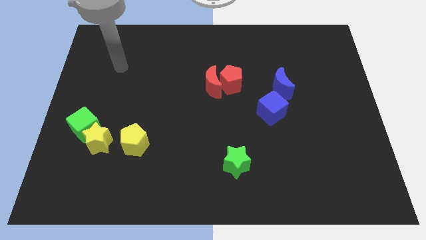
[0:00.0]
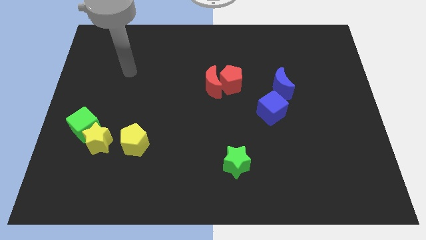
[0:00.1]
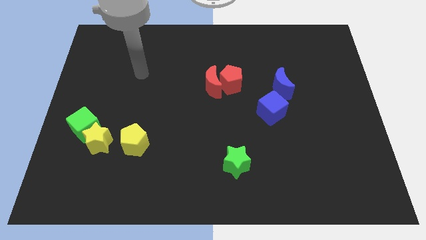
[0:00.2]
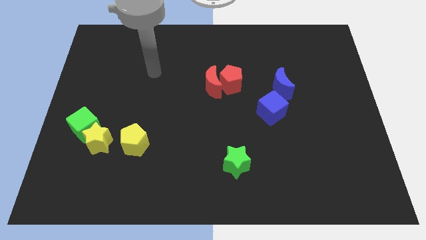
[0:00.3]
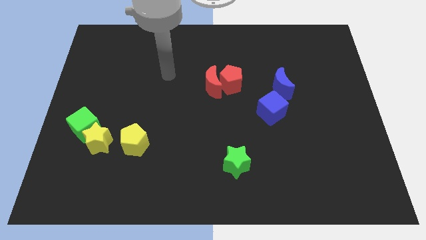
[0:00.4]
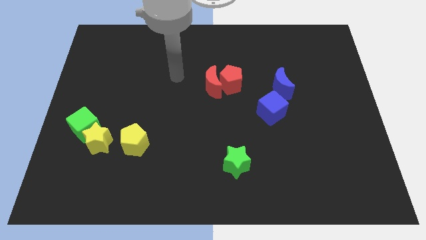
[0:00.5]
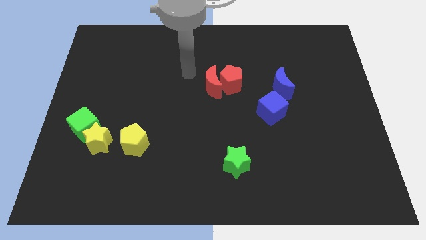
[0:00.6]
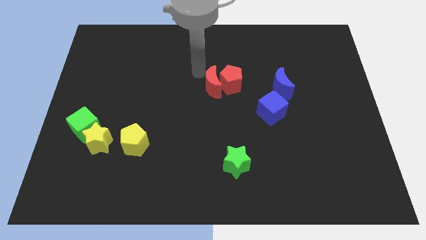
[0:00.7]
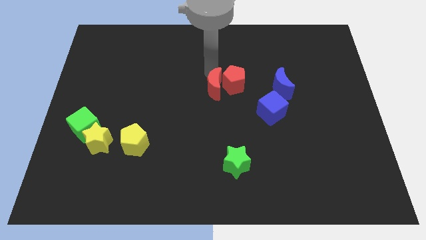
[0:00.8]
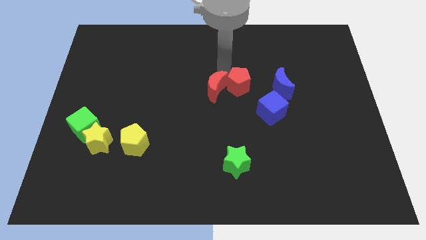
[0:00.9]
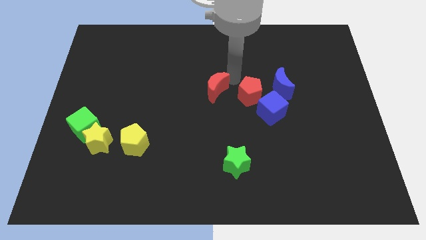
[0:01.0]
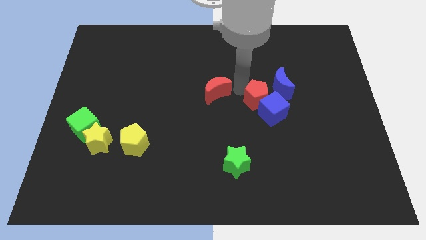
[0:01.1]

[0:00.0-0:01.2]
pull the red moon apart from the red pentagon

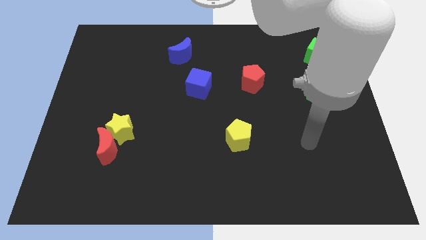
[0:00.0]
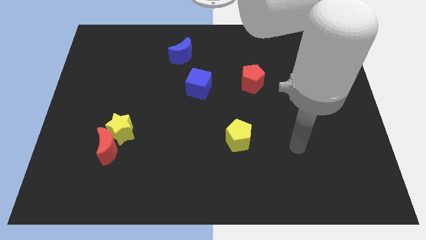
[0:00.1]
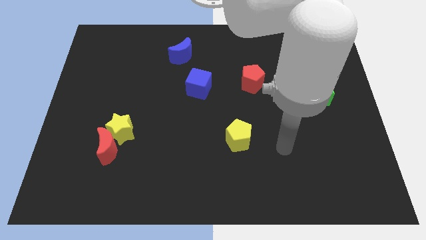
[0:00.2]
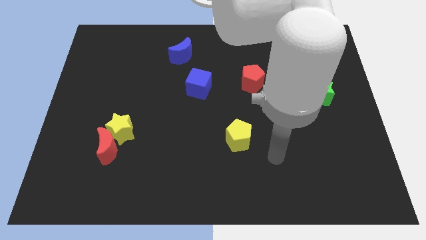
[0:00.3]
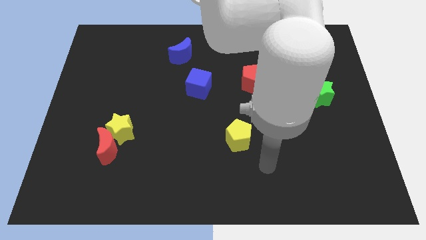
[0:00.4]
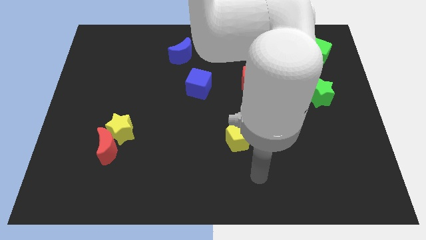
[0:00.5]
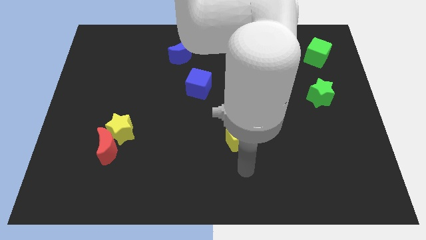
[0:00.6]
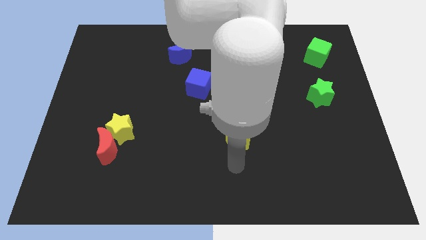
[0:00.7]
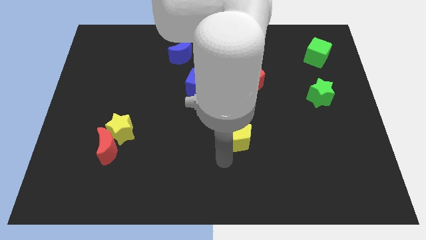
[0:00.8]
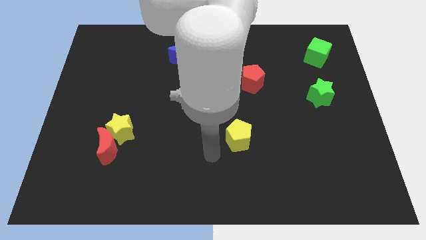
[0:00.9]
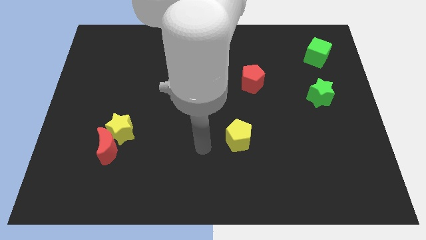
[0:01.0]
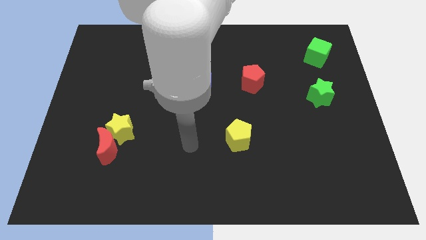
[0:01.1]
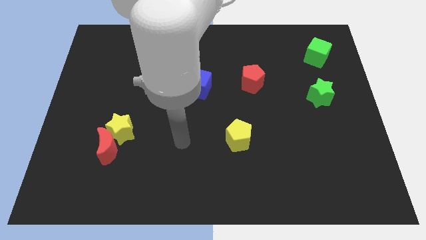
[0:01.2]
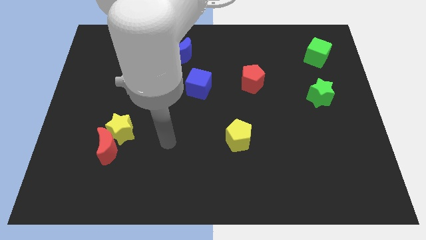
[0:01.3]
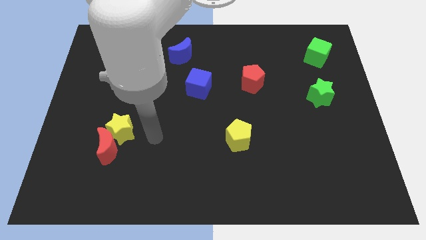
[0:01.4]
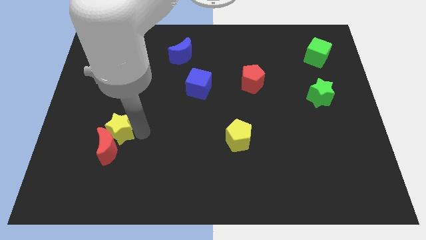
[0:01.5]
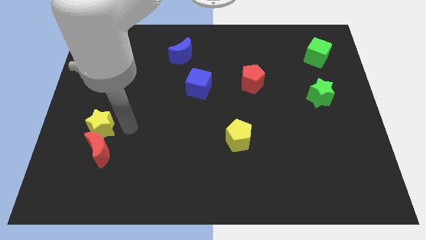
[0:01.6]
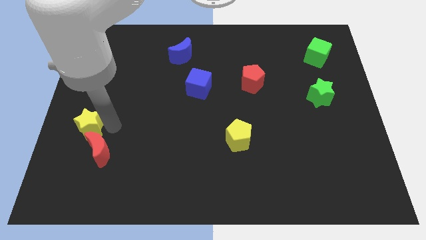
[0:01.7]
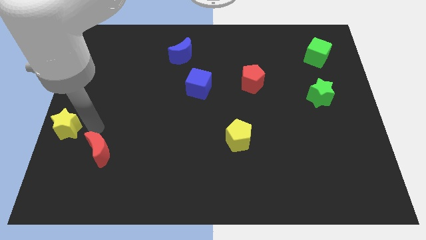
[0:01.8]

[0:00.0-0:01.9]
move the red moon away from the yellow star

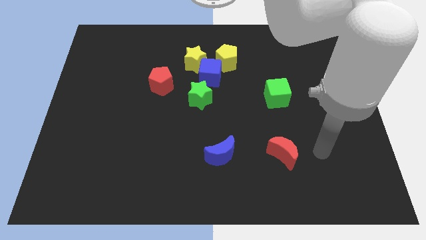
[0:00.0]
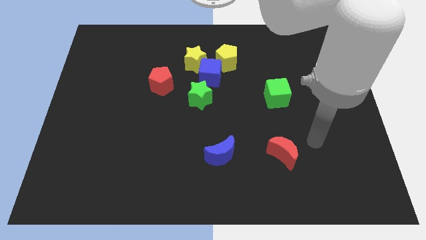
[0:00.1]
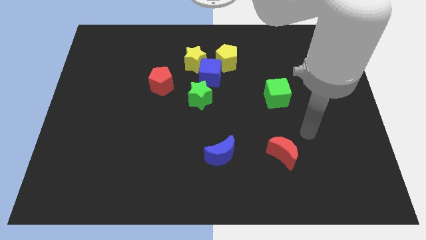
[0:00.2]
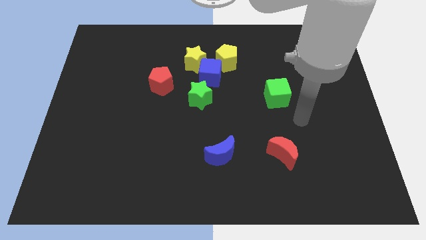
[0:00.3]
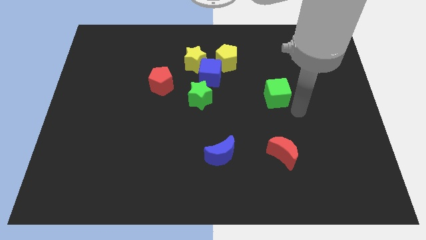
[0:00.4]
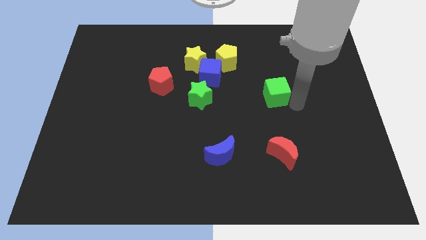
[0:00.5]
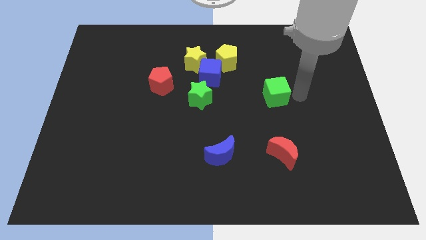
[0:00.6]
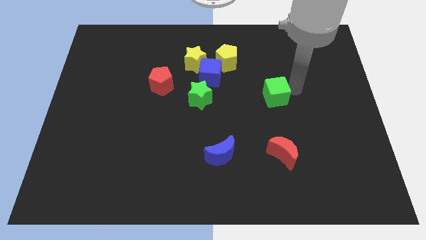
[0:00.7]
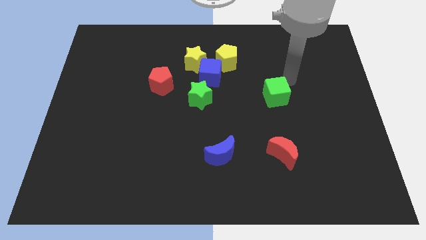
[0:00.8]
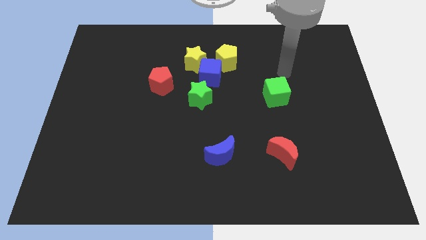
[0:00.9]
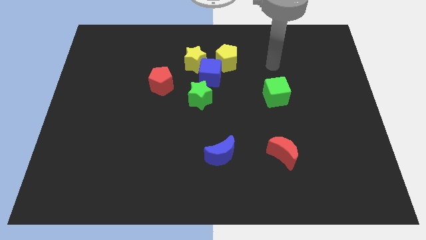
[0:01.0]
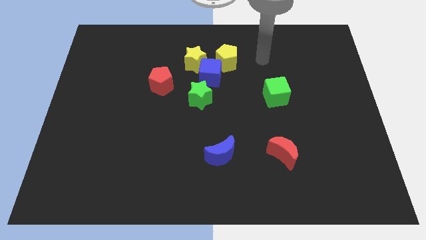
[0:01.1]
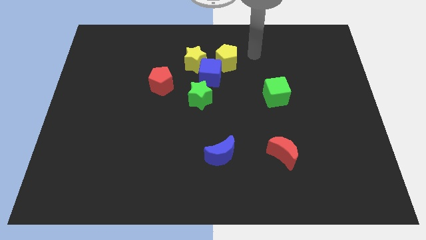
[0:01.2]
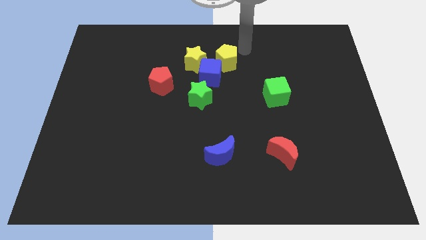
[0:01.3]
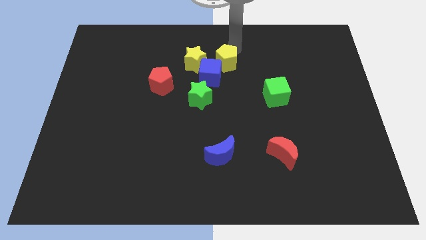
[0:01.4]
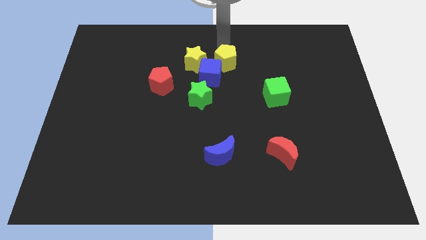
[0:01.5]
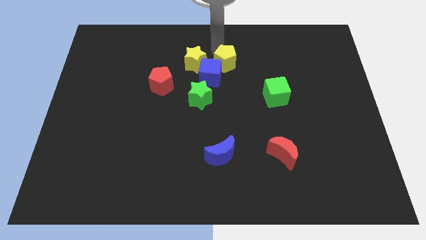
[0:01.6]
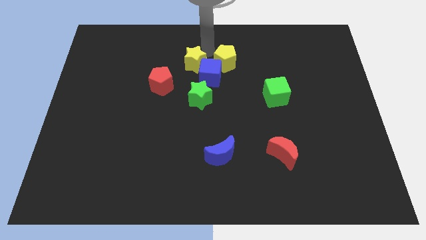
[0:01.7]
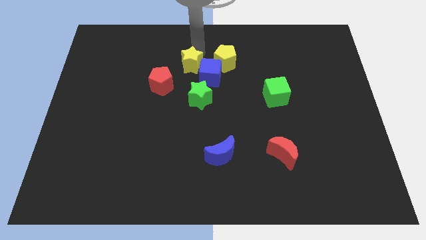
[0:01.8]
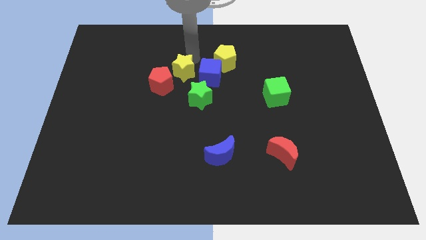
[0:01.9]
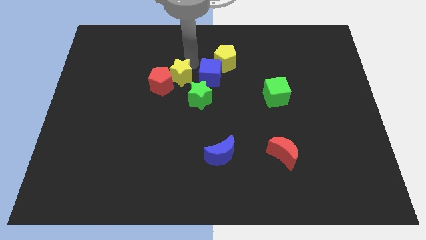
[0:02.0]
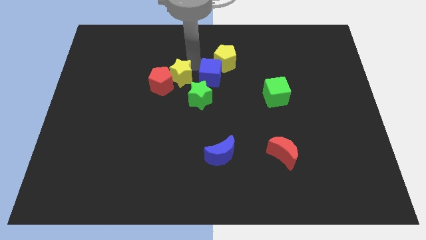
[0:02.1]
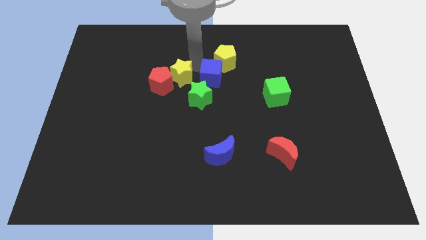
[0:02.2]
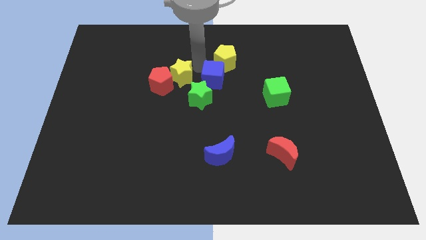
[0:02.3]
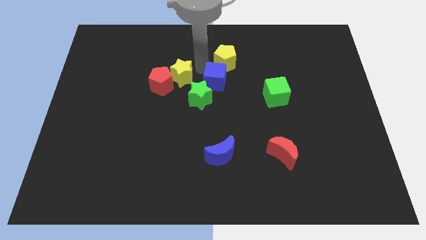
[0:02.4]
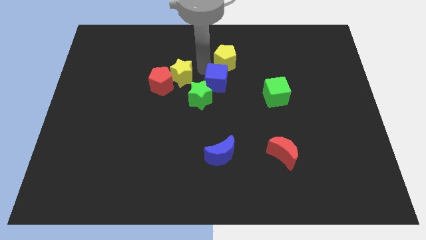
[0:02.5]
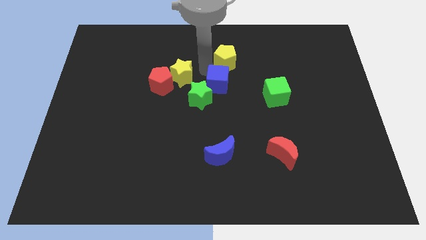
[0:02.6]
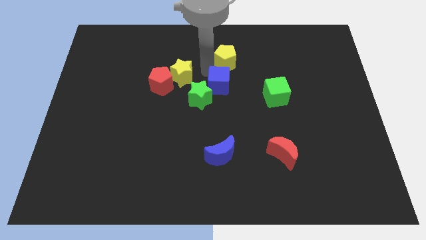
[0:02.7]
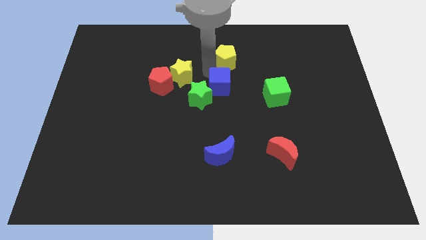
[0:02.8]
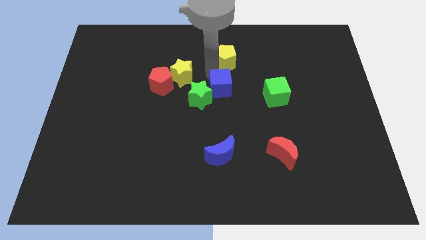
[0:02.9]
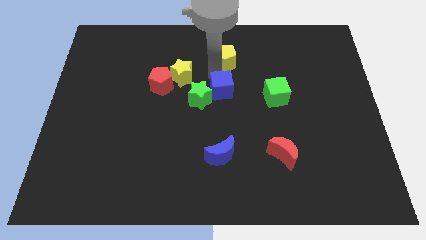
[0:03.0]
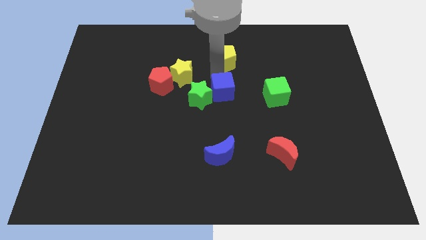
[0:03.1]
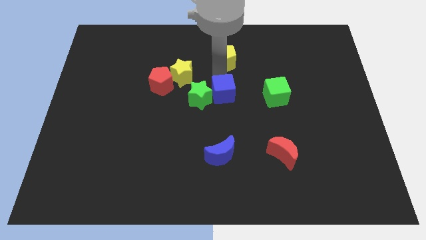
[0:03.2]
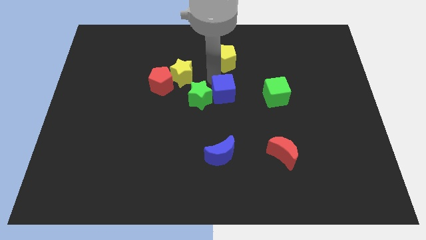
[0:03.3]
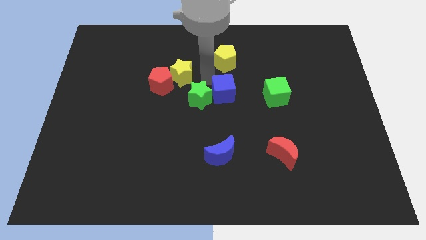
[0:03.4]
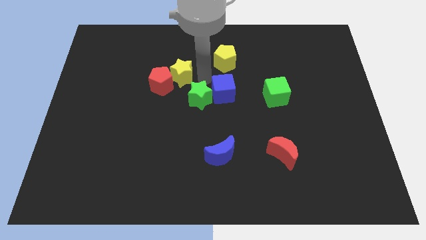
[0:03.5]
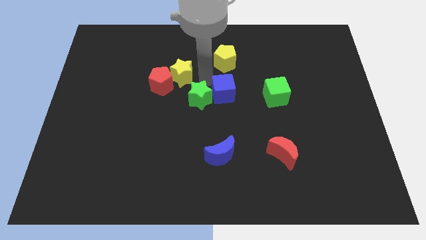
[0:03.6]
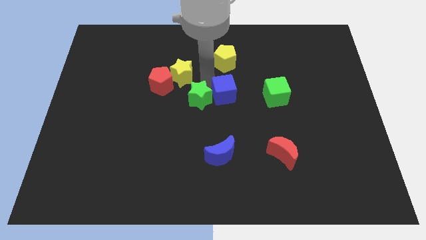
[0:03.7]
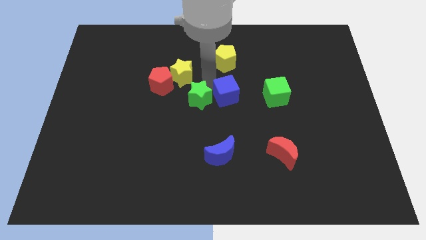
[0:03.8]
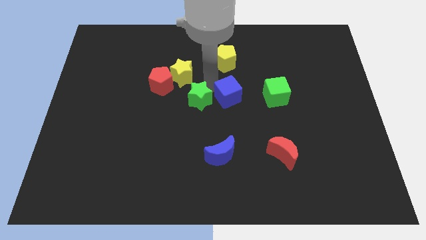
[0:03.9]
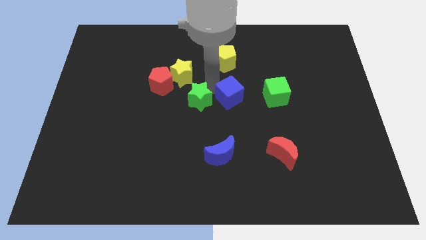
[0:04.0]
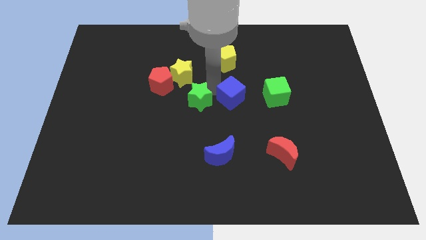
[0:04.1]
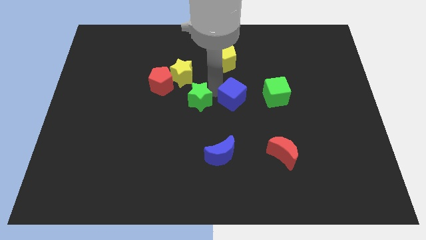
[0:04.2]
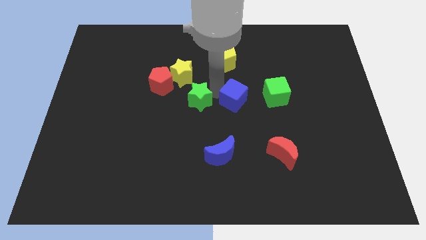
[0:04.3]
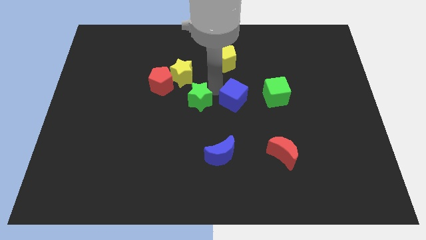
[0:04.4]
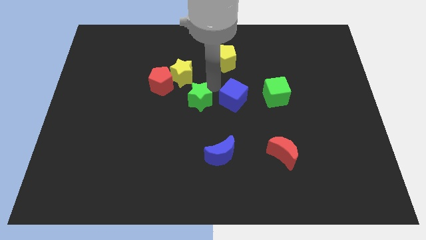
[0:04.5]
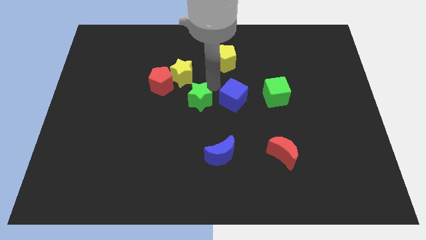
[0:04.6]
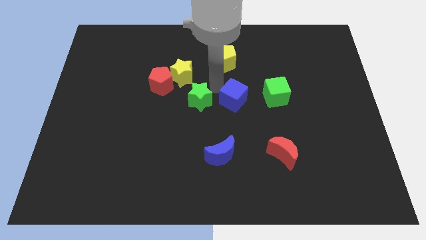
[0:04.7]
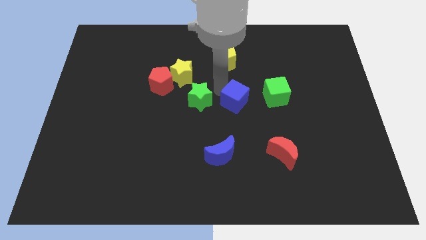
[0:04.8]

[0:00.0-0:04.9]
move the blue cube away from the yellow star, yellow pentagon, and green star

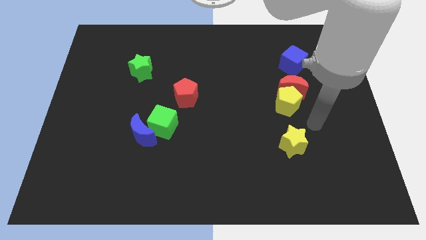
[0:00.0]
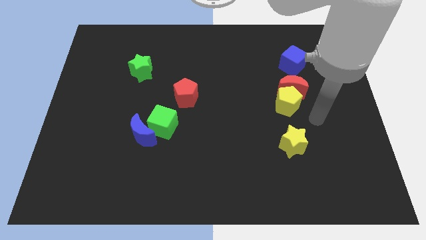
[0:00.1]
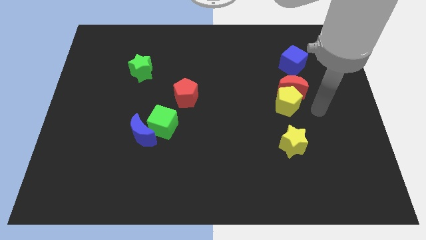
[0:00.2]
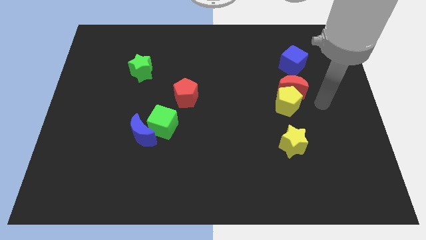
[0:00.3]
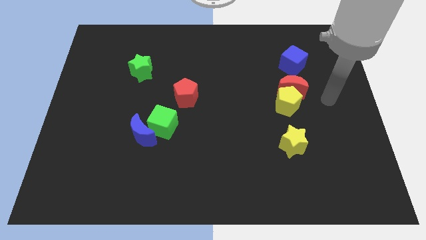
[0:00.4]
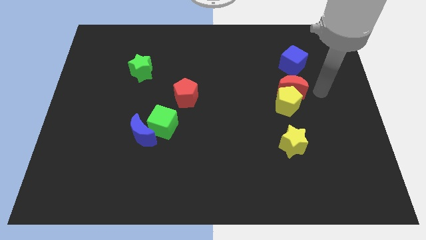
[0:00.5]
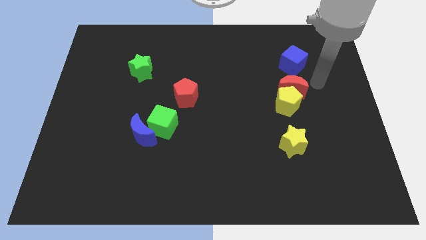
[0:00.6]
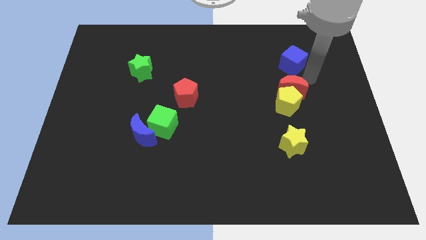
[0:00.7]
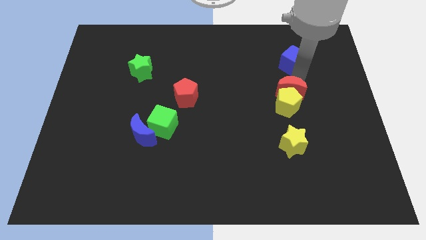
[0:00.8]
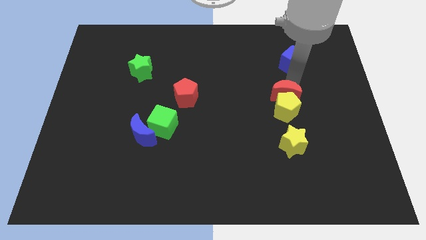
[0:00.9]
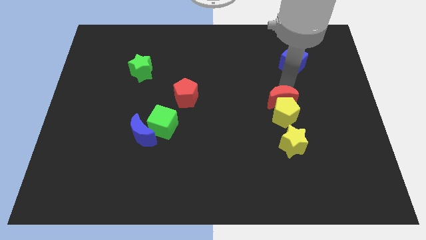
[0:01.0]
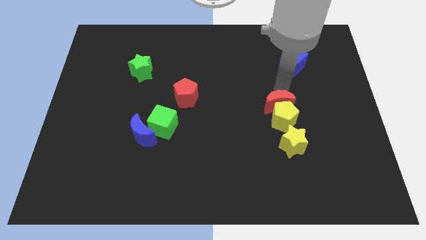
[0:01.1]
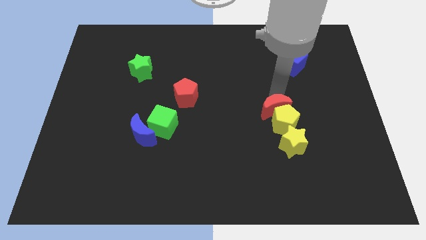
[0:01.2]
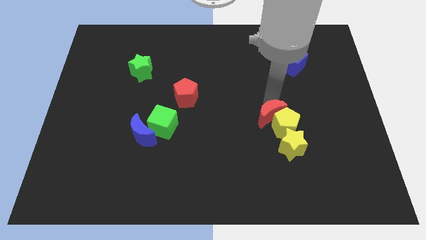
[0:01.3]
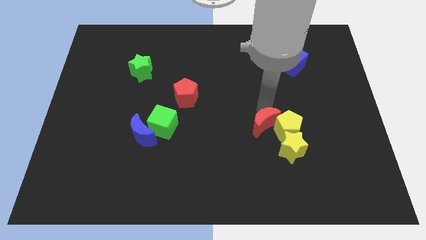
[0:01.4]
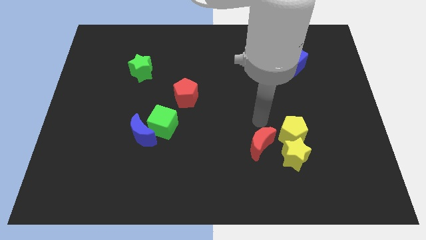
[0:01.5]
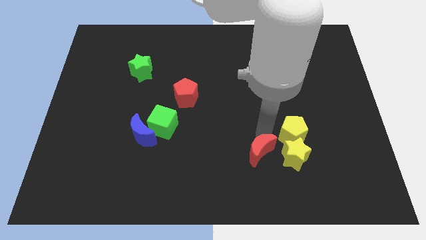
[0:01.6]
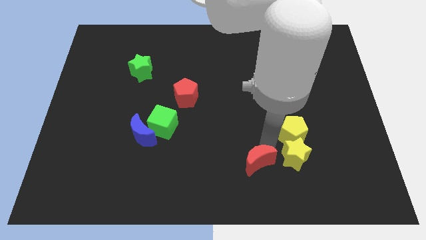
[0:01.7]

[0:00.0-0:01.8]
pull the yellow pentagon apart from the red moon
